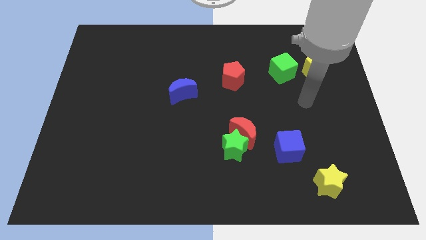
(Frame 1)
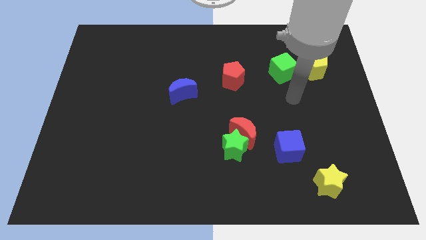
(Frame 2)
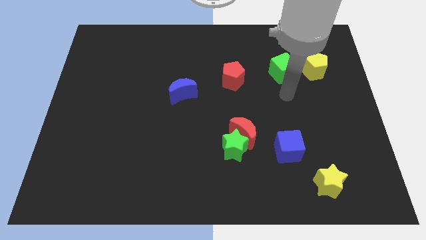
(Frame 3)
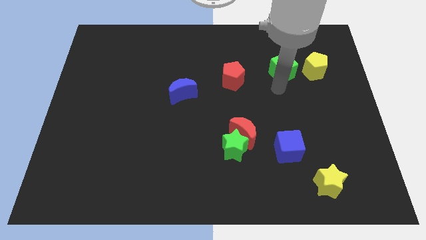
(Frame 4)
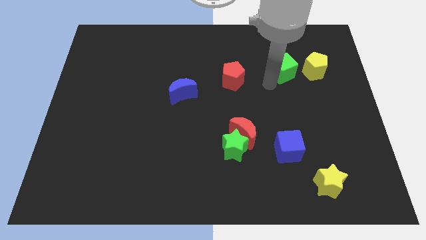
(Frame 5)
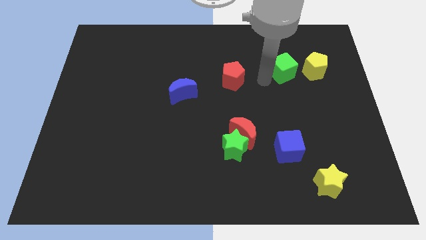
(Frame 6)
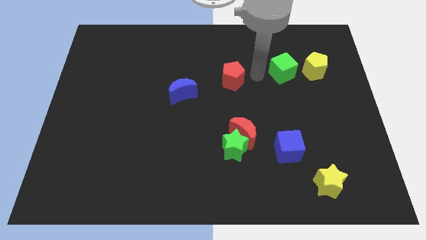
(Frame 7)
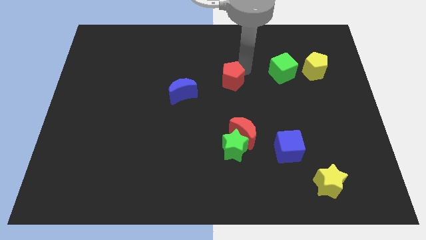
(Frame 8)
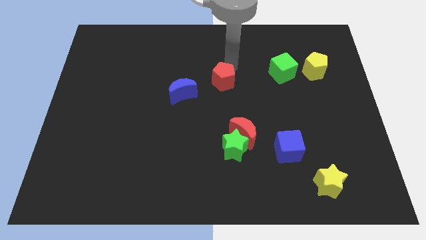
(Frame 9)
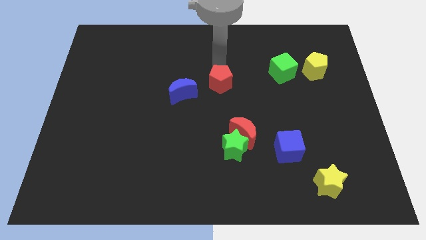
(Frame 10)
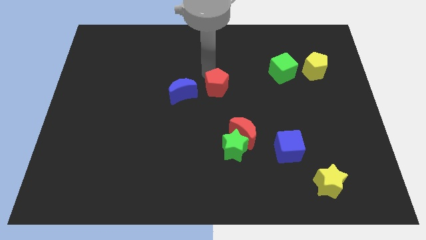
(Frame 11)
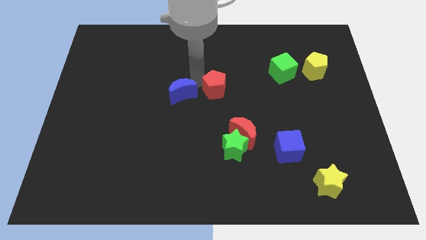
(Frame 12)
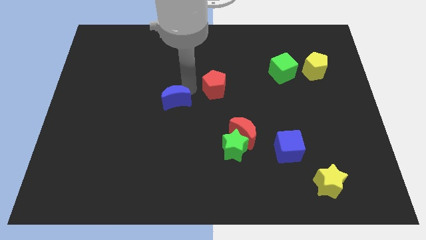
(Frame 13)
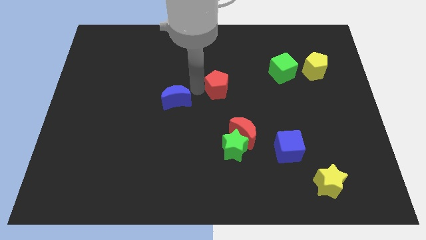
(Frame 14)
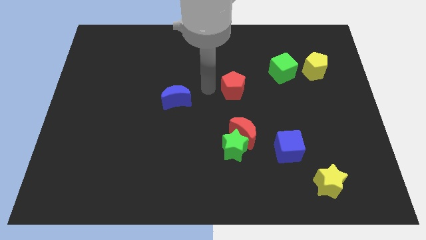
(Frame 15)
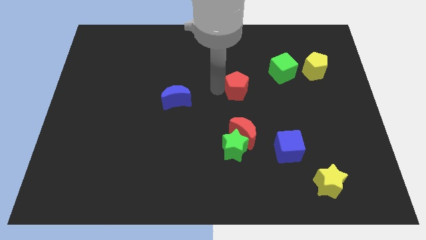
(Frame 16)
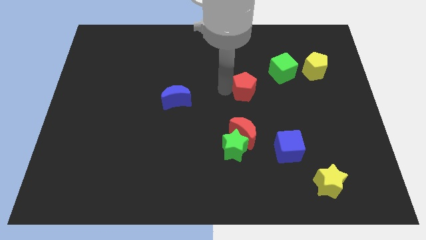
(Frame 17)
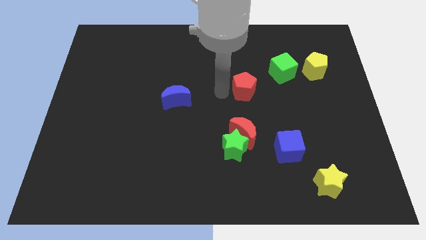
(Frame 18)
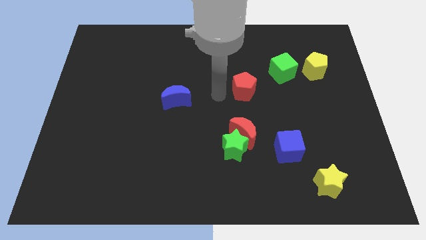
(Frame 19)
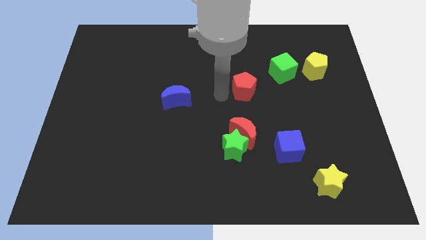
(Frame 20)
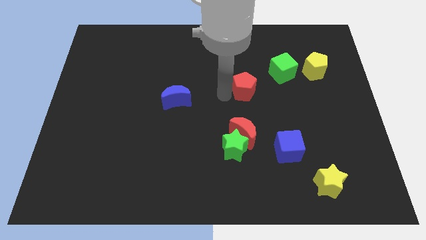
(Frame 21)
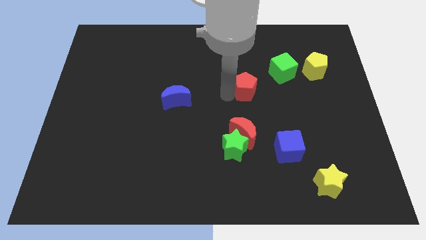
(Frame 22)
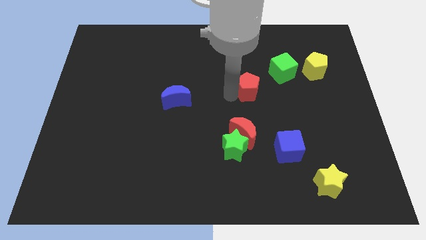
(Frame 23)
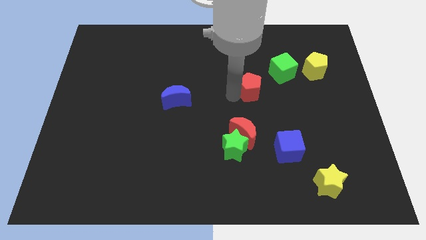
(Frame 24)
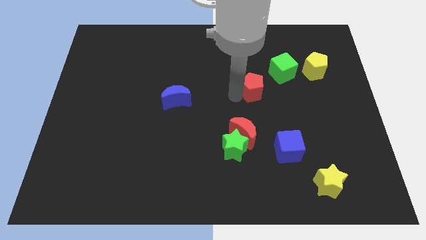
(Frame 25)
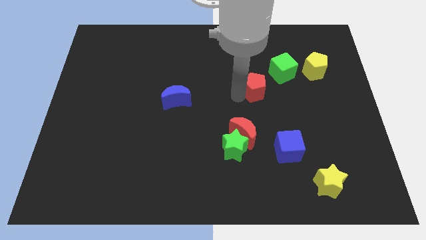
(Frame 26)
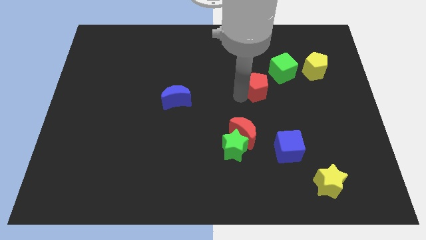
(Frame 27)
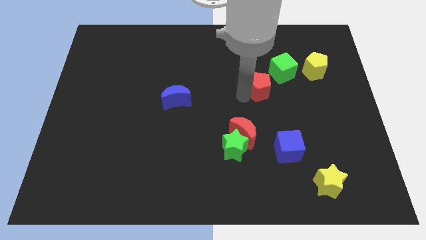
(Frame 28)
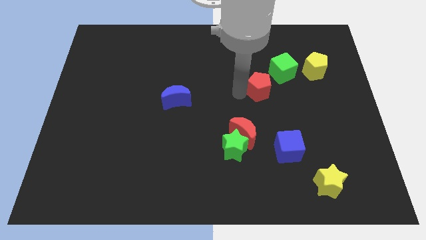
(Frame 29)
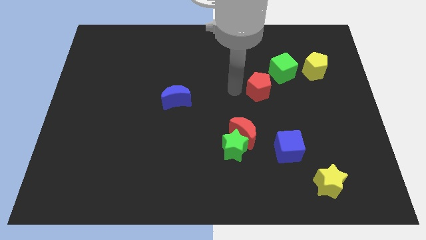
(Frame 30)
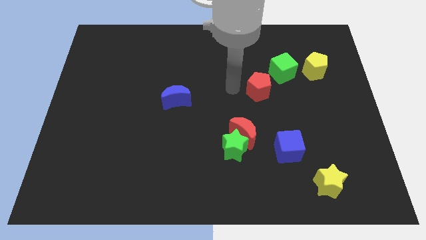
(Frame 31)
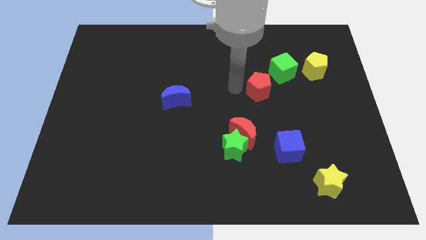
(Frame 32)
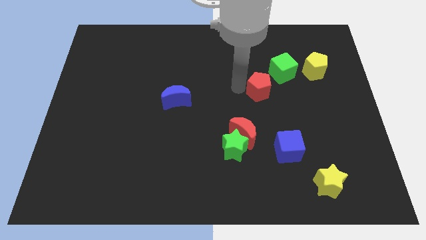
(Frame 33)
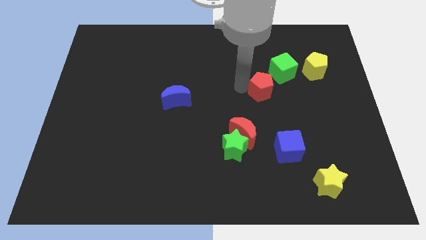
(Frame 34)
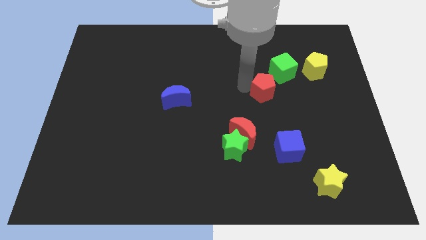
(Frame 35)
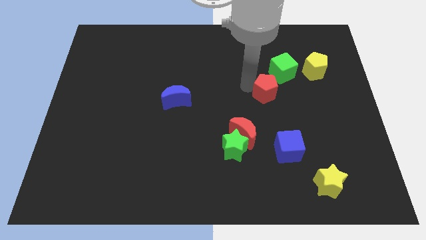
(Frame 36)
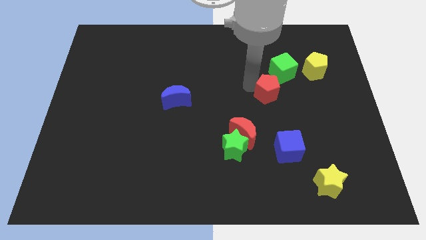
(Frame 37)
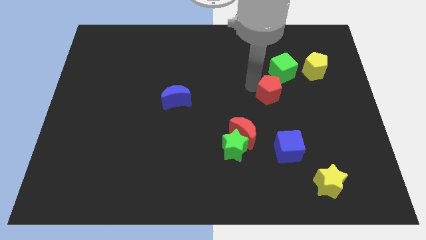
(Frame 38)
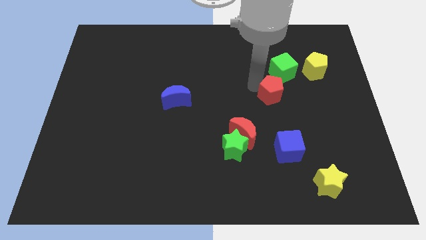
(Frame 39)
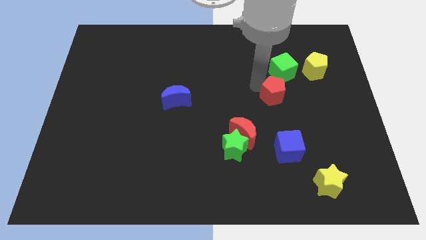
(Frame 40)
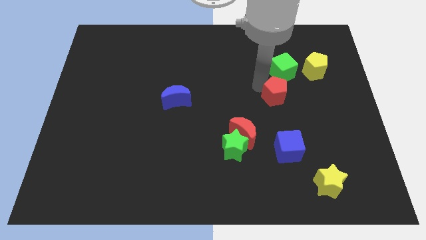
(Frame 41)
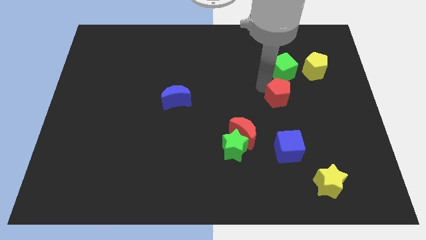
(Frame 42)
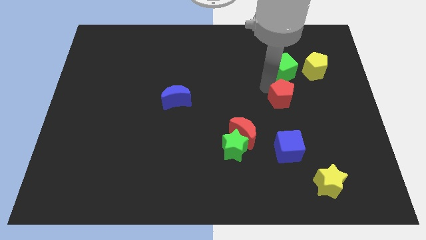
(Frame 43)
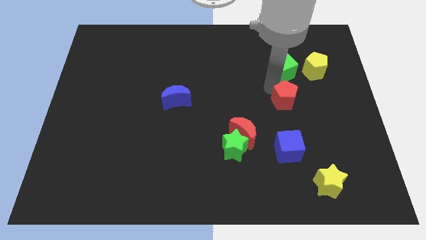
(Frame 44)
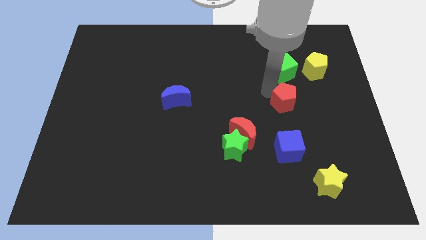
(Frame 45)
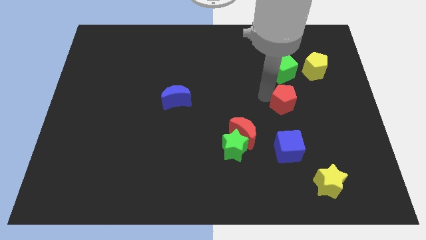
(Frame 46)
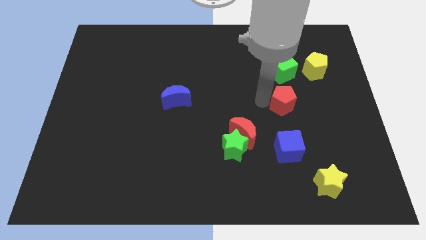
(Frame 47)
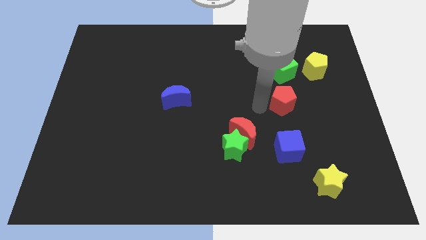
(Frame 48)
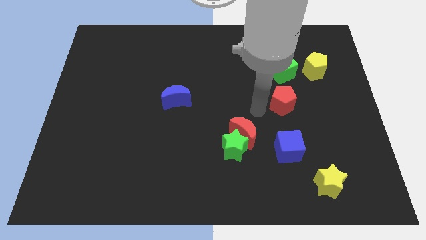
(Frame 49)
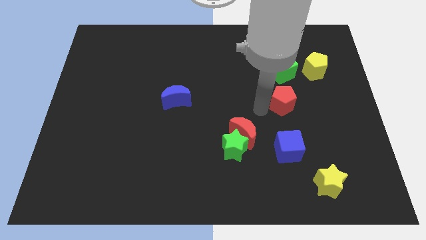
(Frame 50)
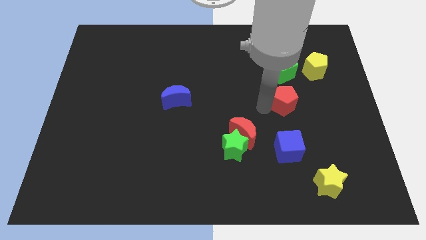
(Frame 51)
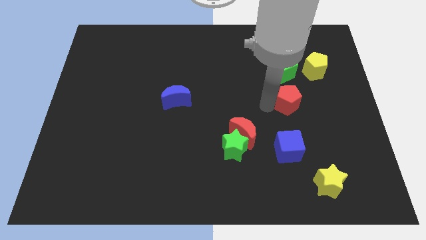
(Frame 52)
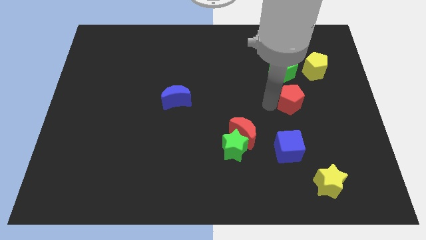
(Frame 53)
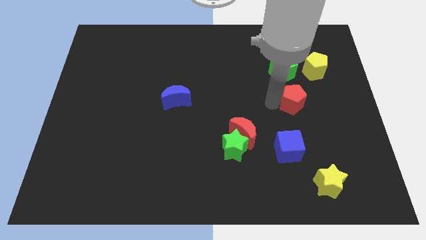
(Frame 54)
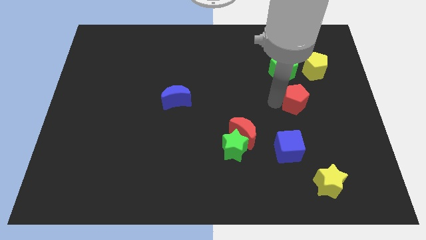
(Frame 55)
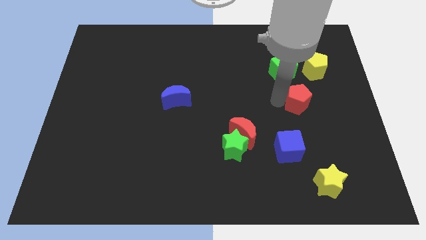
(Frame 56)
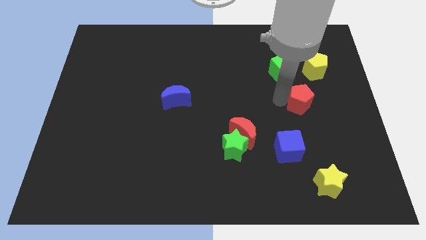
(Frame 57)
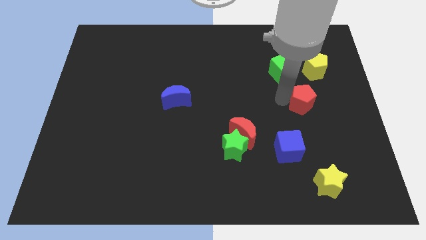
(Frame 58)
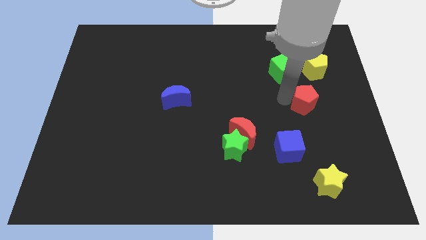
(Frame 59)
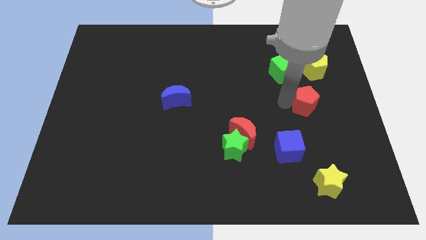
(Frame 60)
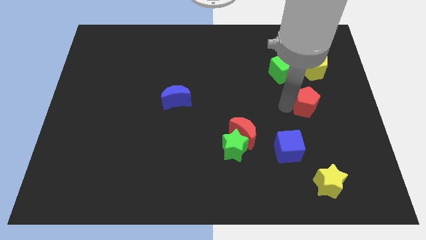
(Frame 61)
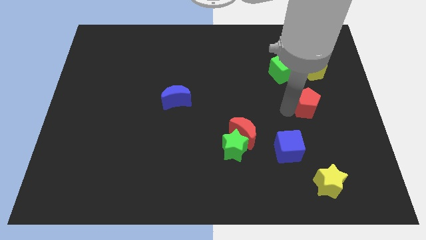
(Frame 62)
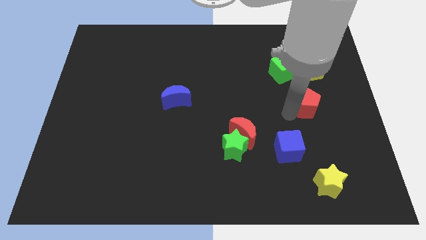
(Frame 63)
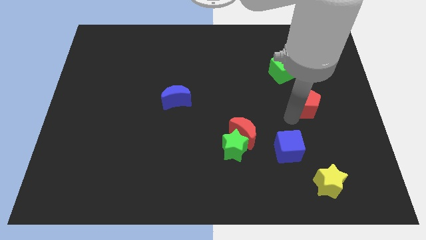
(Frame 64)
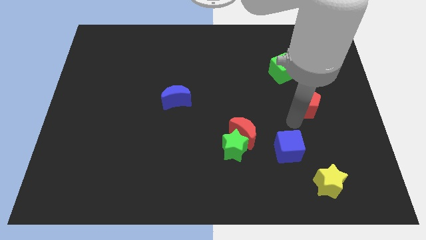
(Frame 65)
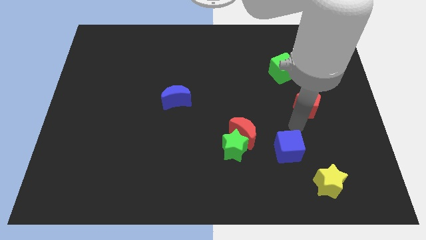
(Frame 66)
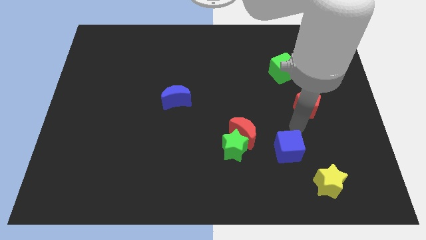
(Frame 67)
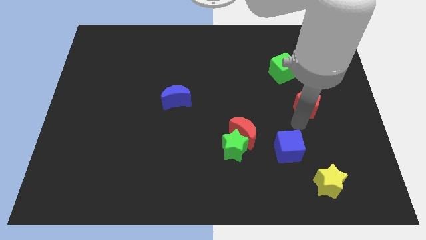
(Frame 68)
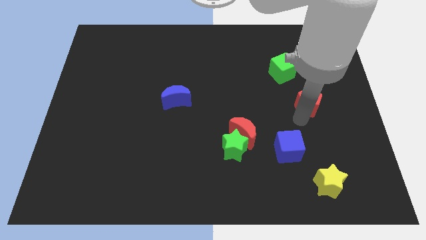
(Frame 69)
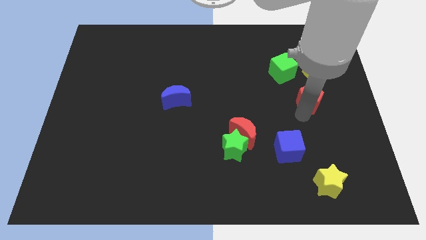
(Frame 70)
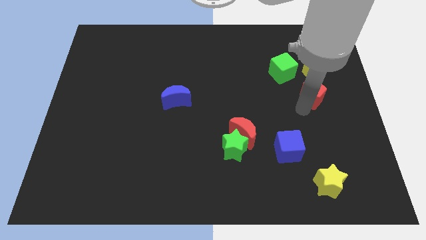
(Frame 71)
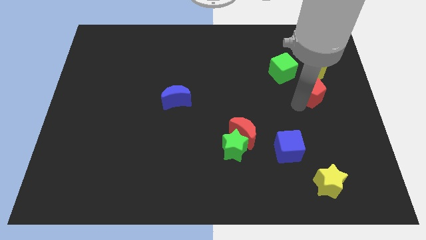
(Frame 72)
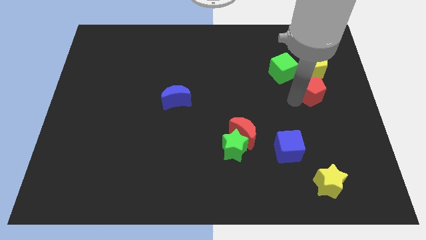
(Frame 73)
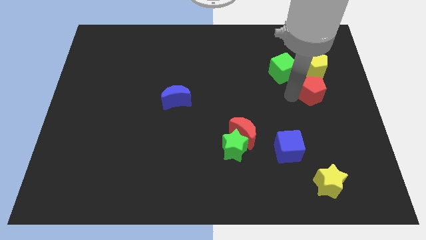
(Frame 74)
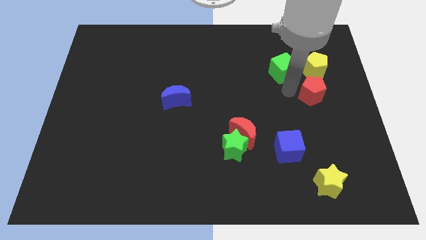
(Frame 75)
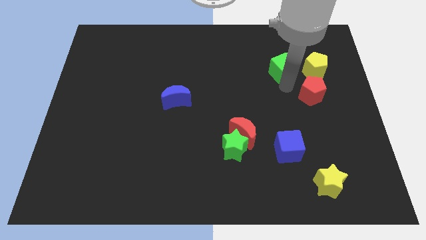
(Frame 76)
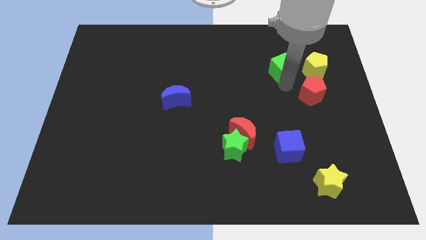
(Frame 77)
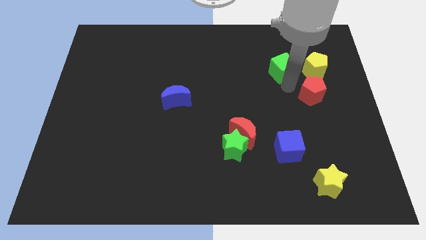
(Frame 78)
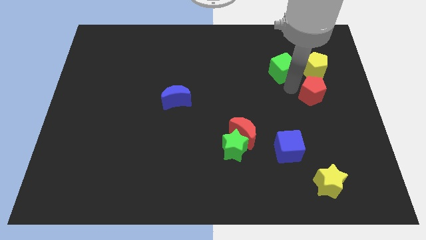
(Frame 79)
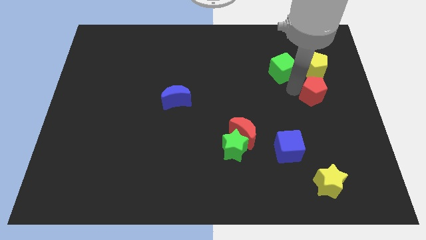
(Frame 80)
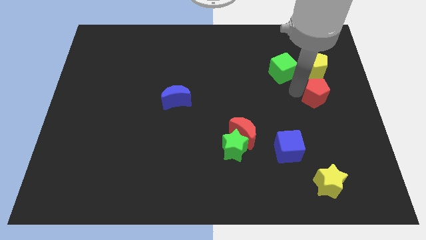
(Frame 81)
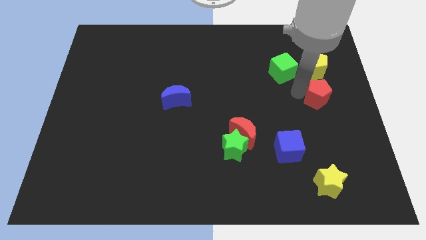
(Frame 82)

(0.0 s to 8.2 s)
put the red pentagon to the right side of the board
